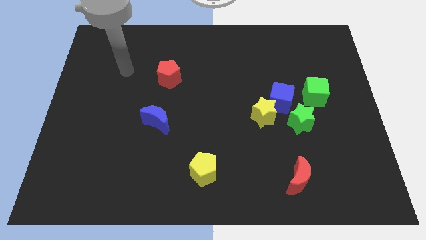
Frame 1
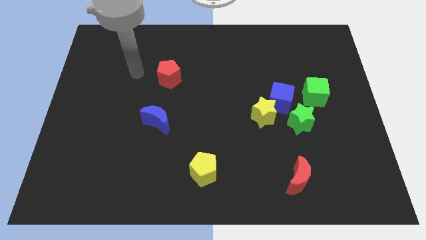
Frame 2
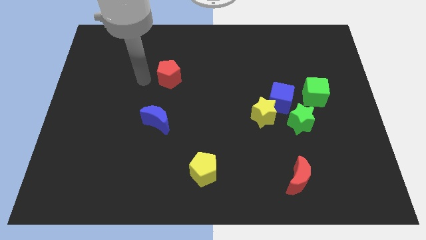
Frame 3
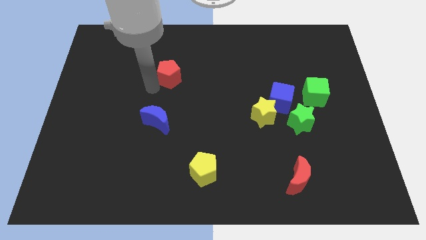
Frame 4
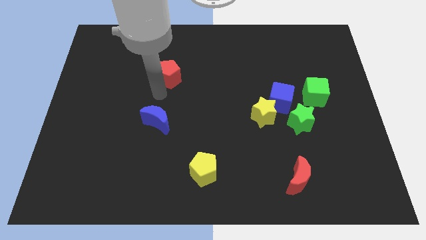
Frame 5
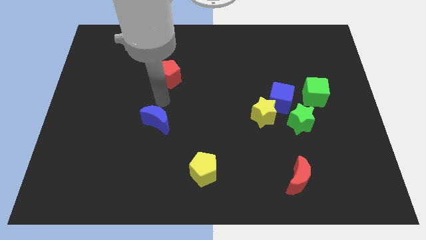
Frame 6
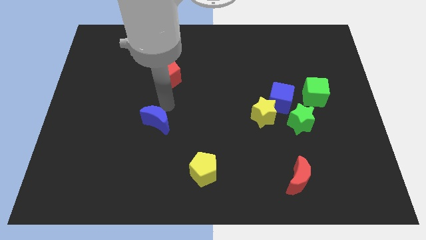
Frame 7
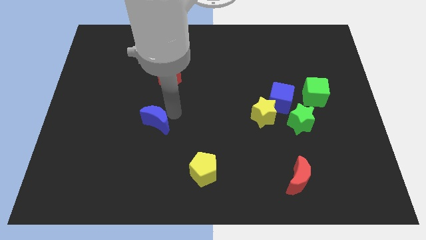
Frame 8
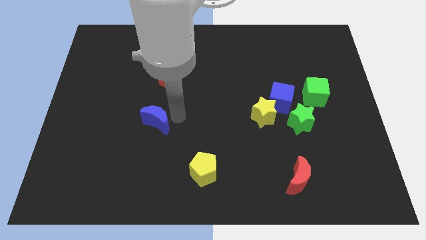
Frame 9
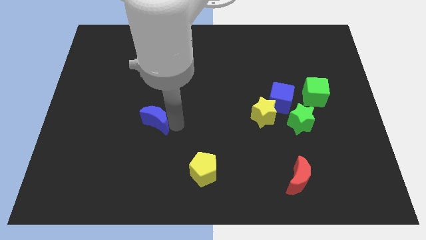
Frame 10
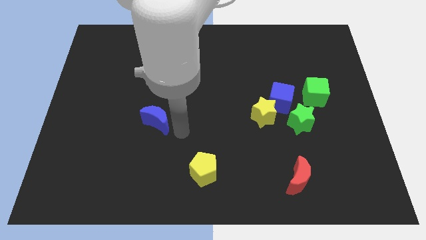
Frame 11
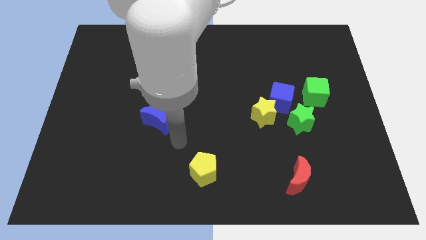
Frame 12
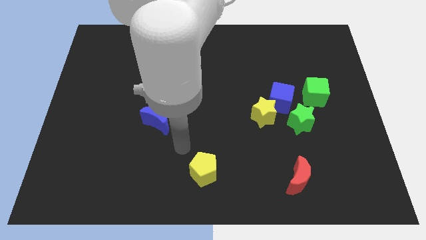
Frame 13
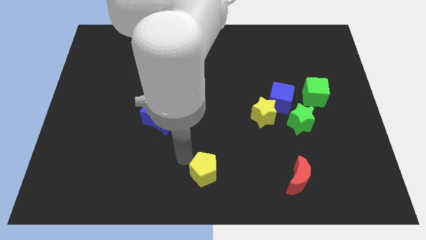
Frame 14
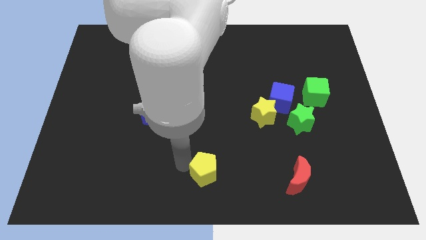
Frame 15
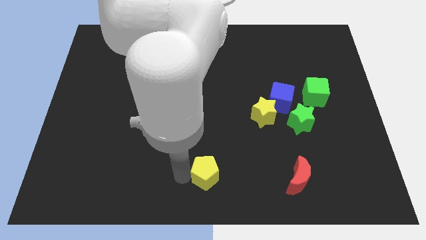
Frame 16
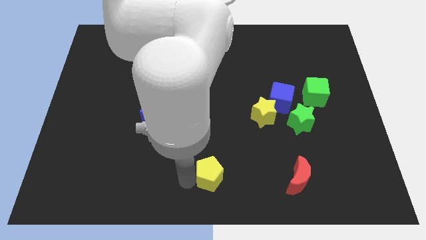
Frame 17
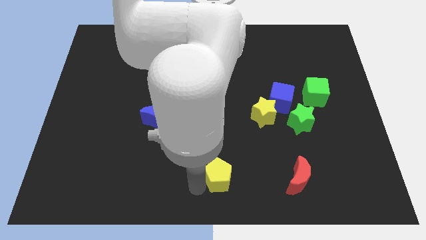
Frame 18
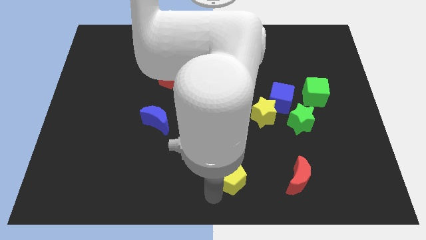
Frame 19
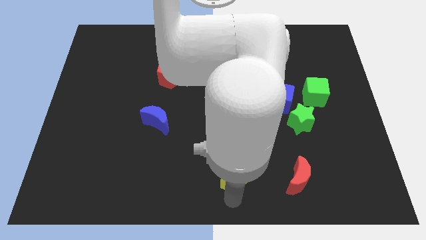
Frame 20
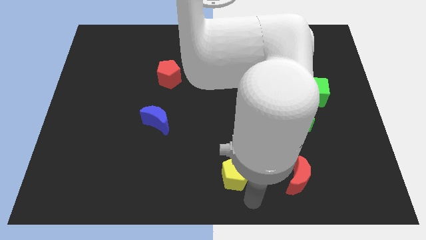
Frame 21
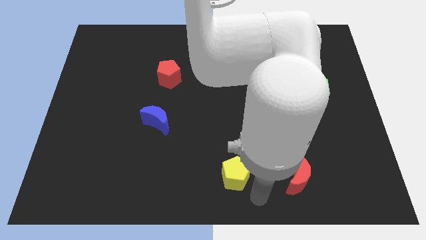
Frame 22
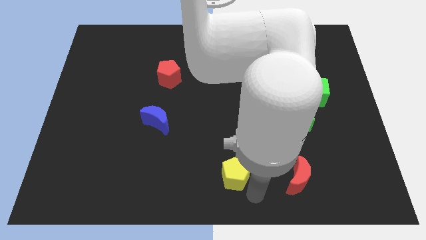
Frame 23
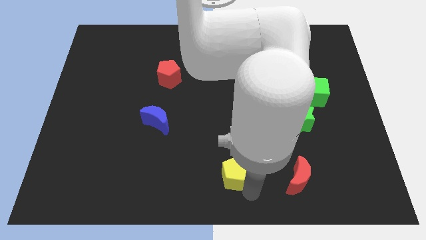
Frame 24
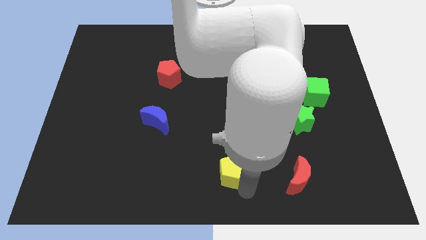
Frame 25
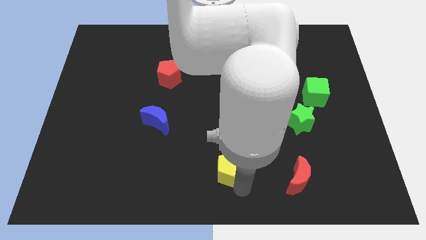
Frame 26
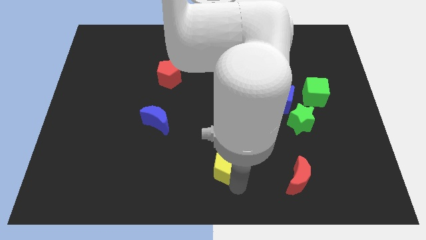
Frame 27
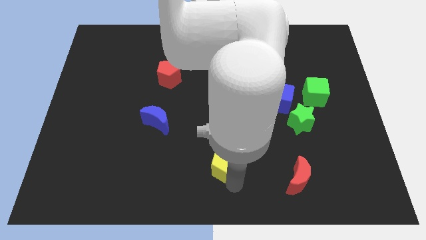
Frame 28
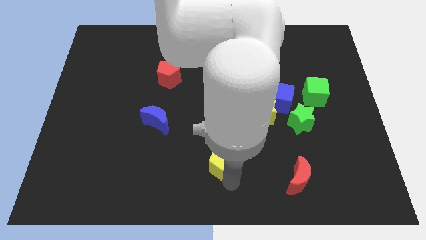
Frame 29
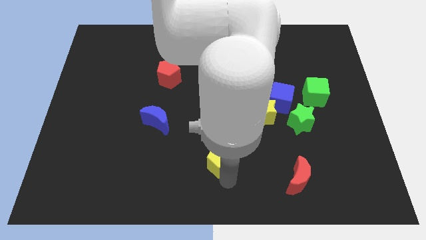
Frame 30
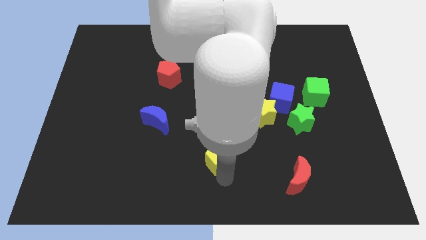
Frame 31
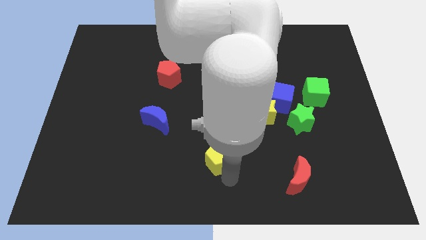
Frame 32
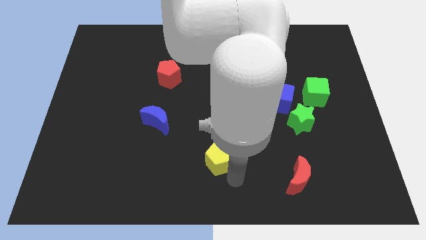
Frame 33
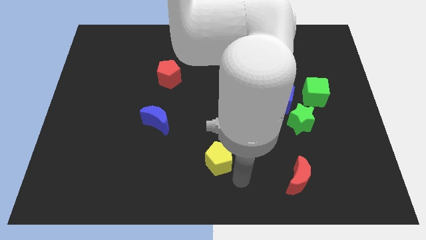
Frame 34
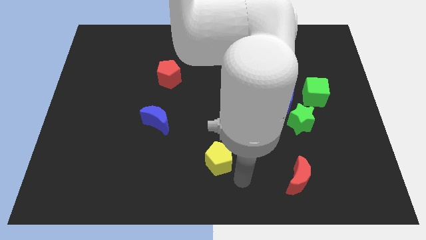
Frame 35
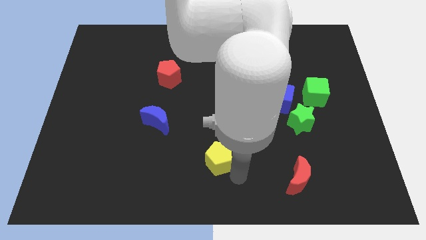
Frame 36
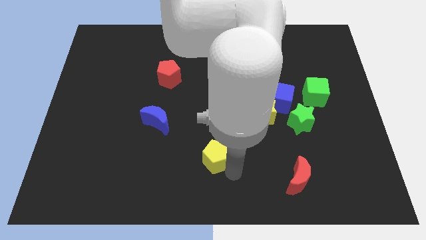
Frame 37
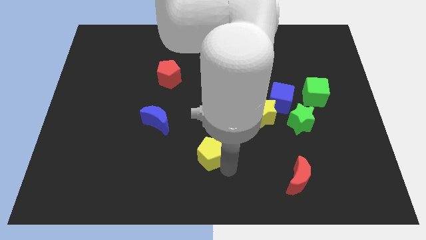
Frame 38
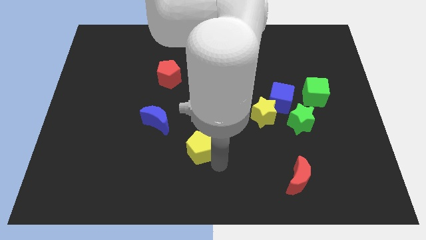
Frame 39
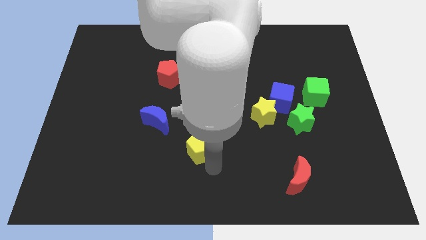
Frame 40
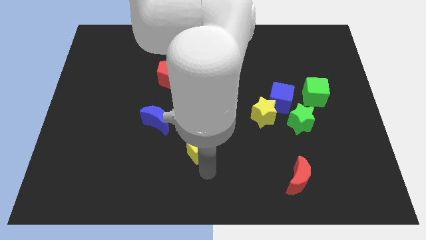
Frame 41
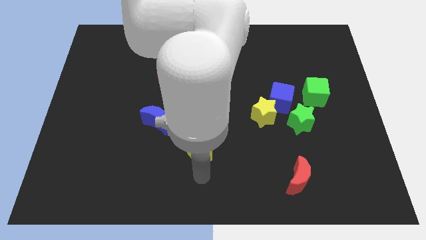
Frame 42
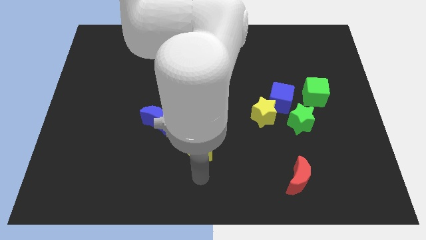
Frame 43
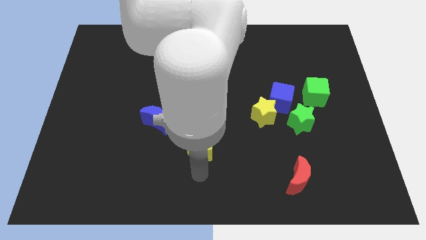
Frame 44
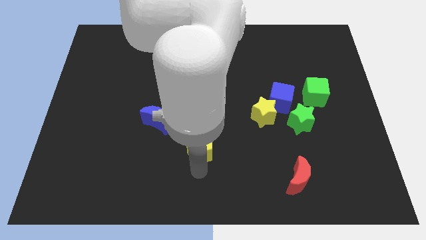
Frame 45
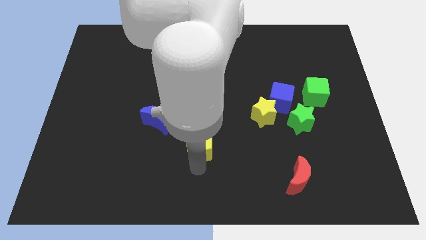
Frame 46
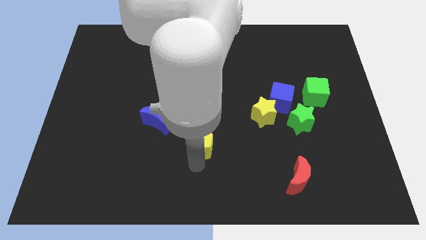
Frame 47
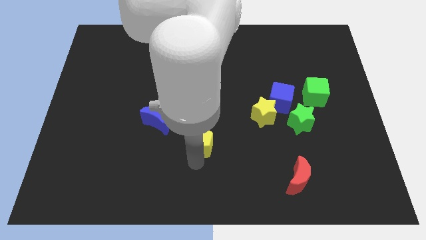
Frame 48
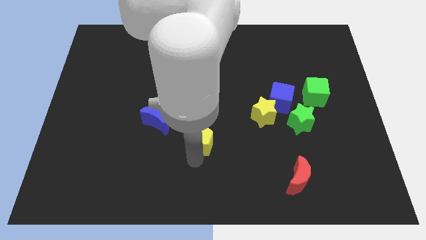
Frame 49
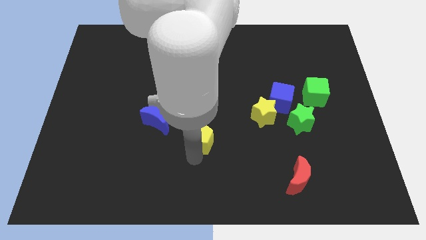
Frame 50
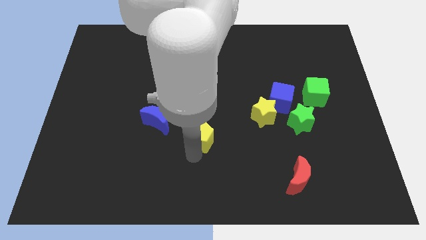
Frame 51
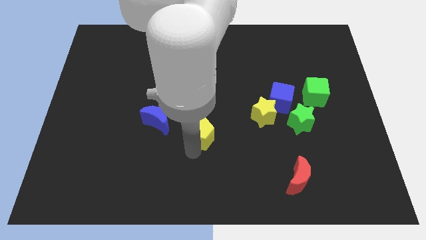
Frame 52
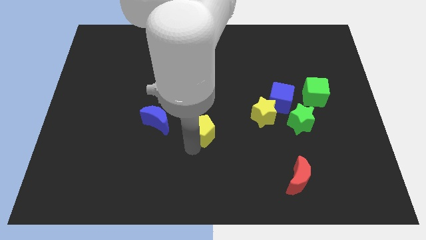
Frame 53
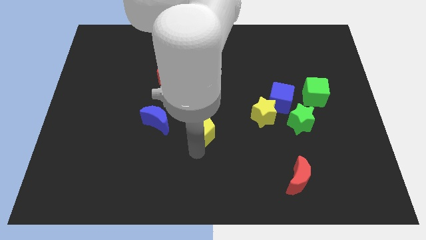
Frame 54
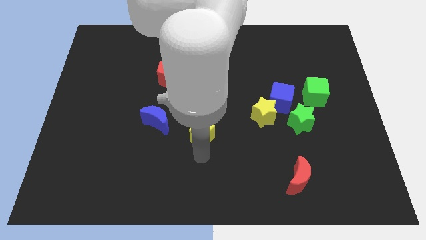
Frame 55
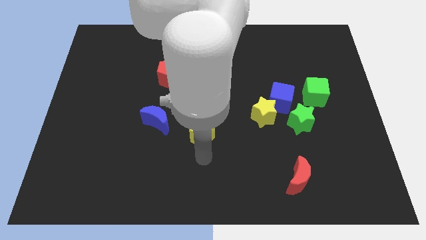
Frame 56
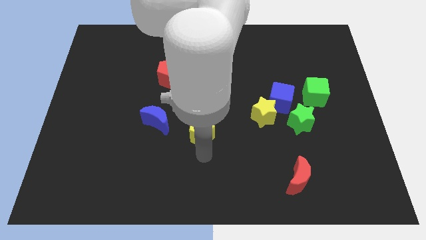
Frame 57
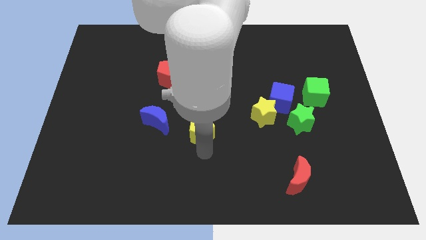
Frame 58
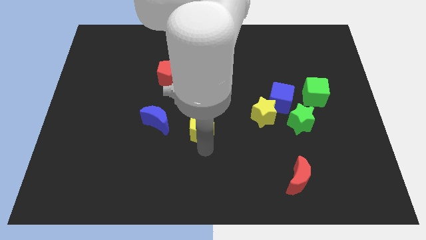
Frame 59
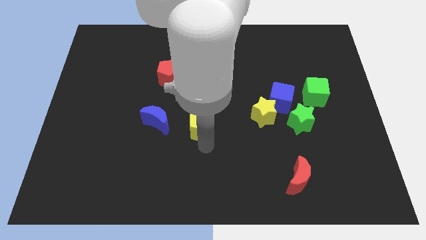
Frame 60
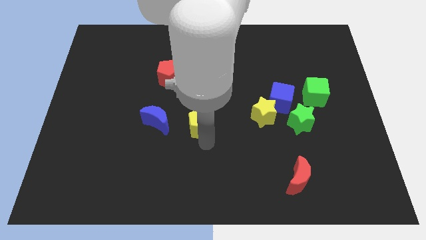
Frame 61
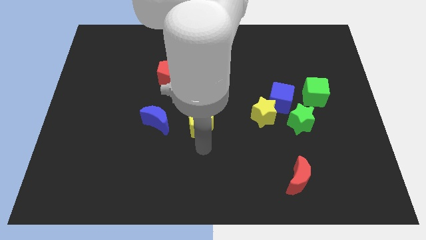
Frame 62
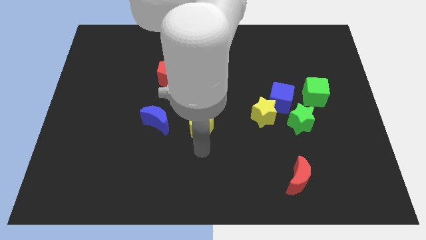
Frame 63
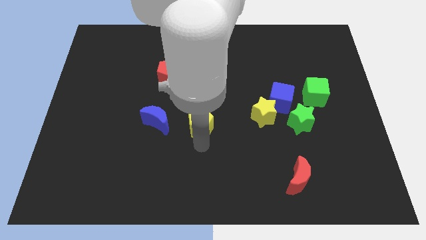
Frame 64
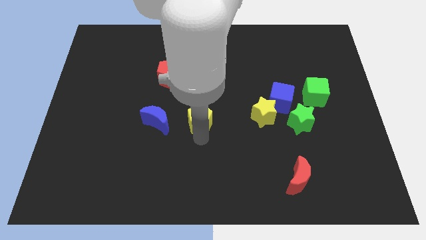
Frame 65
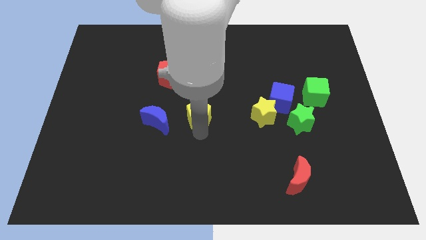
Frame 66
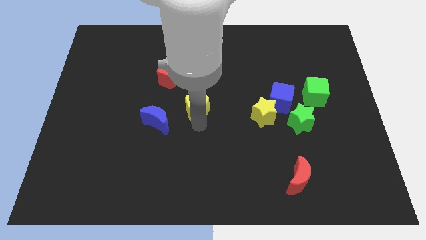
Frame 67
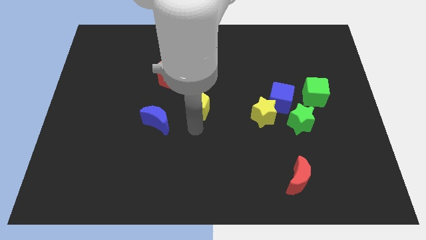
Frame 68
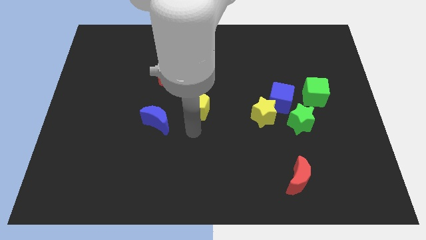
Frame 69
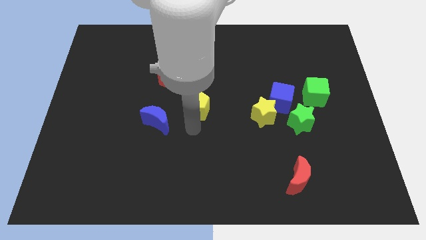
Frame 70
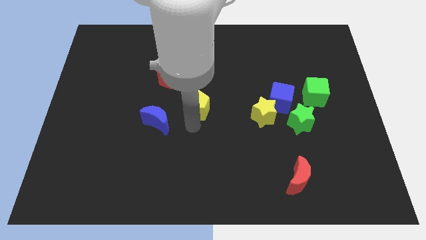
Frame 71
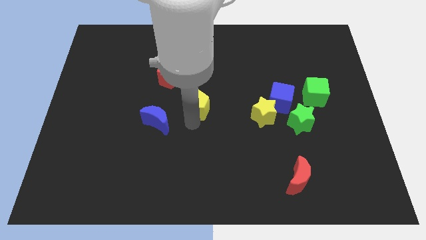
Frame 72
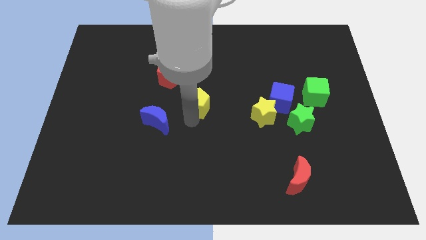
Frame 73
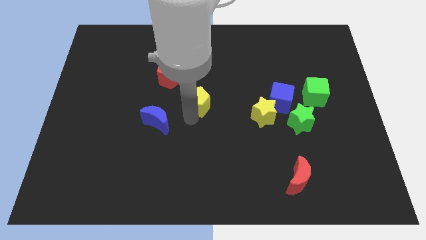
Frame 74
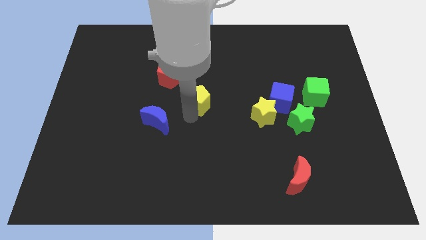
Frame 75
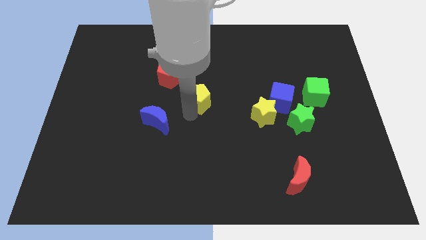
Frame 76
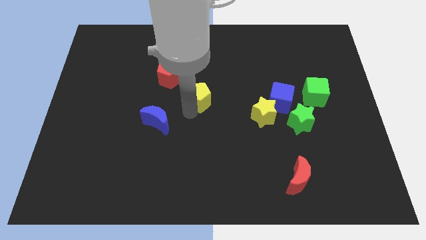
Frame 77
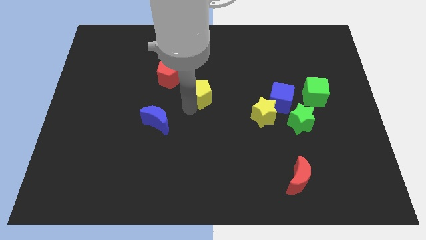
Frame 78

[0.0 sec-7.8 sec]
move the yellow pentagon upwards

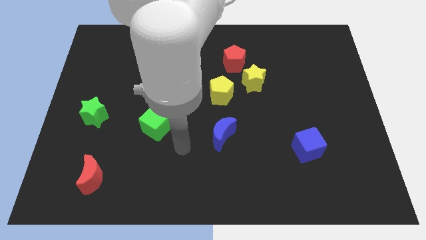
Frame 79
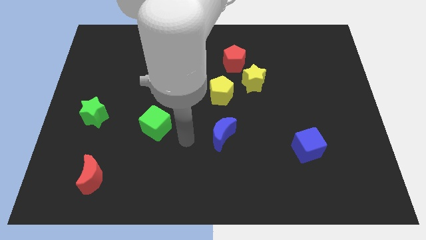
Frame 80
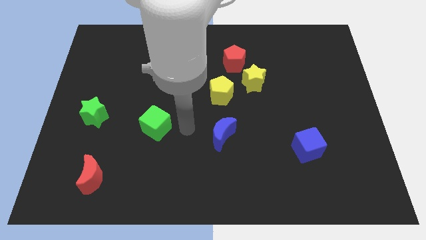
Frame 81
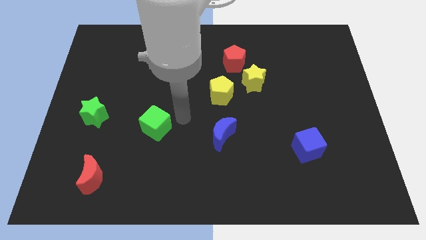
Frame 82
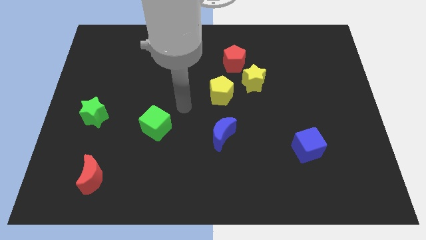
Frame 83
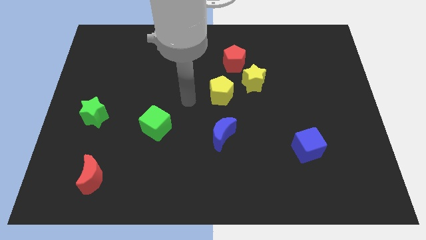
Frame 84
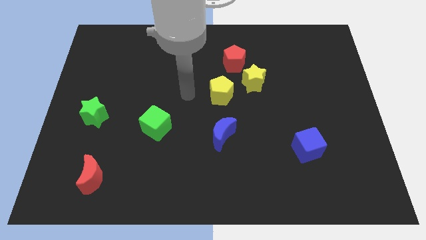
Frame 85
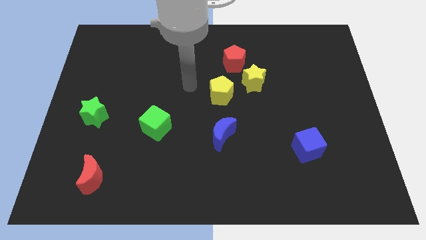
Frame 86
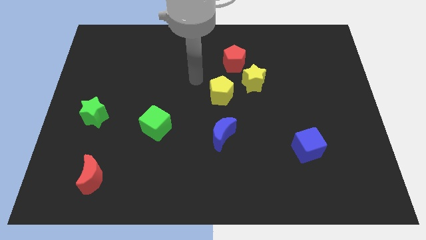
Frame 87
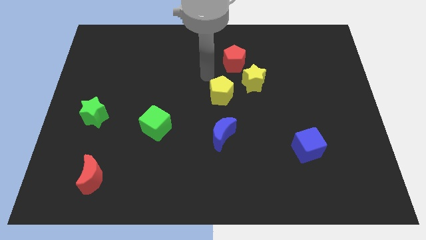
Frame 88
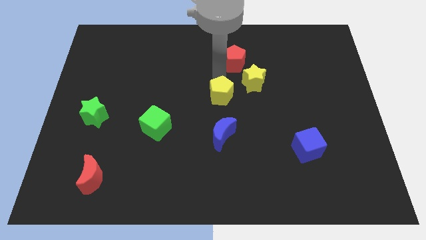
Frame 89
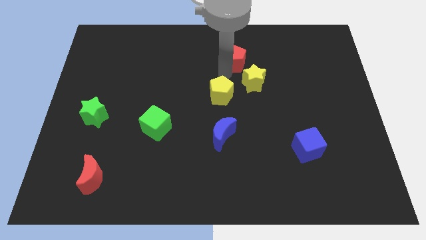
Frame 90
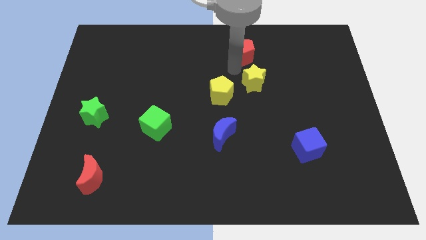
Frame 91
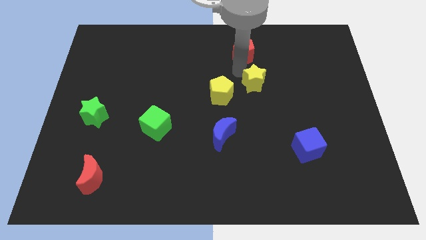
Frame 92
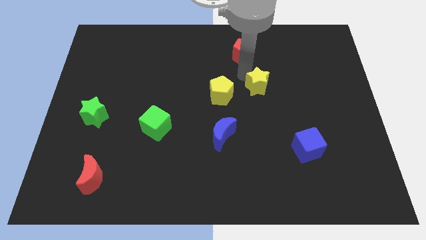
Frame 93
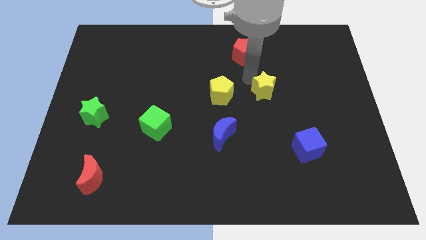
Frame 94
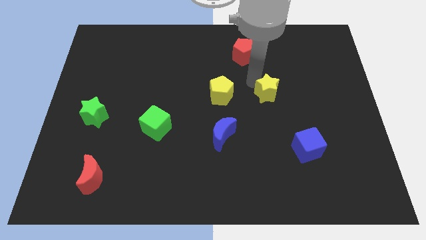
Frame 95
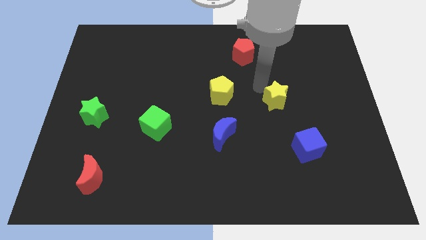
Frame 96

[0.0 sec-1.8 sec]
move the yellow star a little diagonally downwards and right
